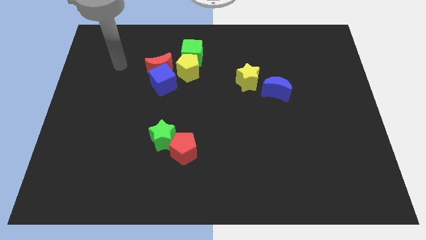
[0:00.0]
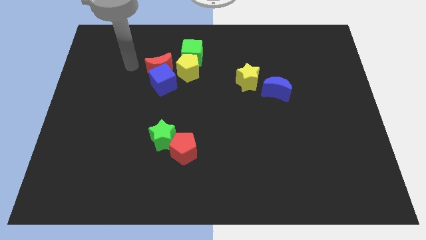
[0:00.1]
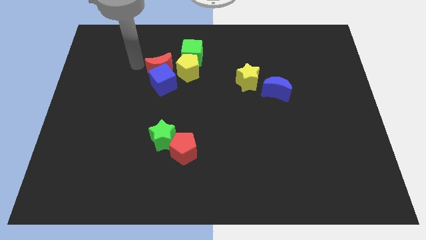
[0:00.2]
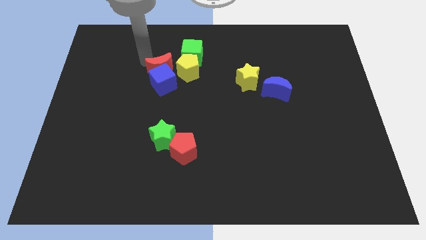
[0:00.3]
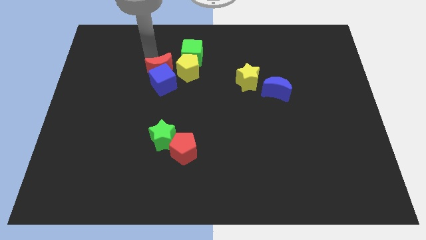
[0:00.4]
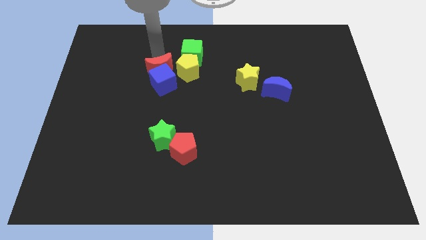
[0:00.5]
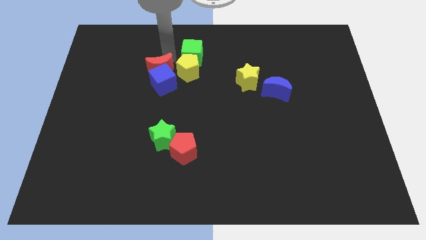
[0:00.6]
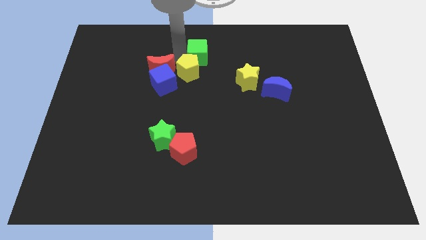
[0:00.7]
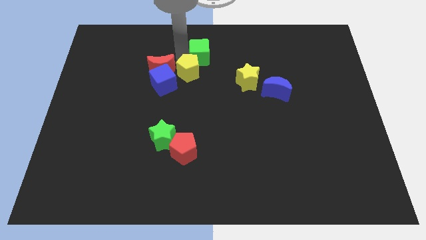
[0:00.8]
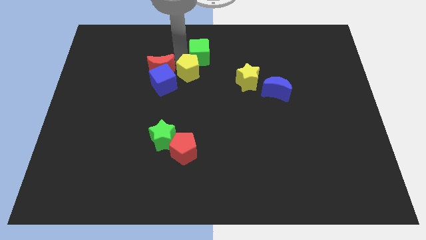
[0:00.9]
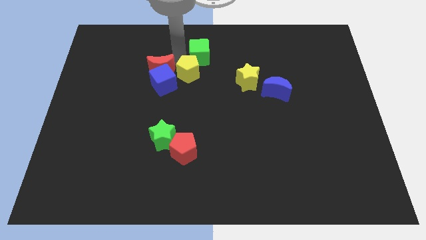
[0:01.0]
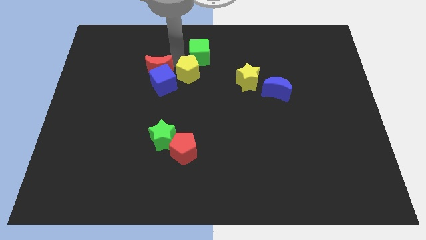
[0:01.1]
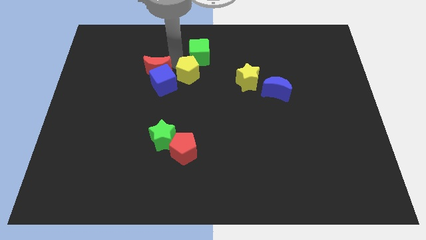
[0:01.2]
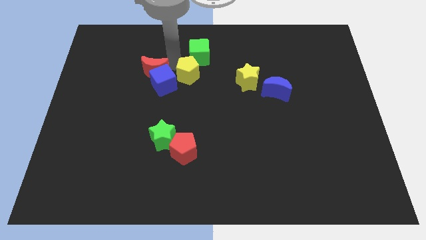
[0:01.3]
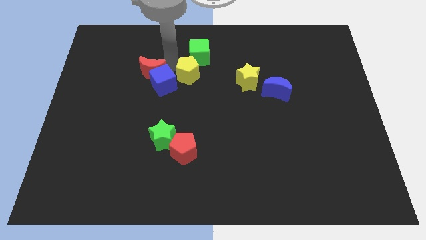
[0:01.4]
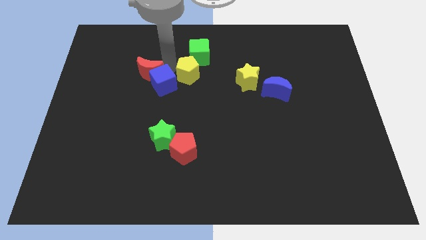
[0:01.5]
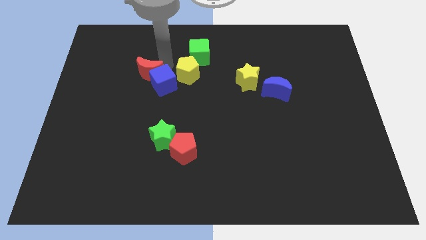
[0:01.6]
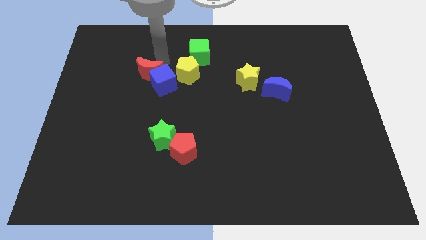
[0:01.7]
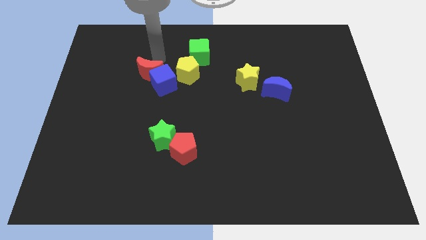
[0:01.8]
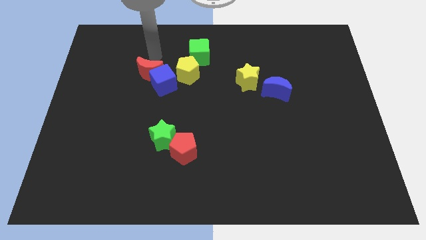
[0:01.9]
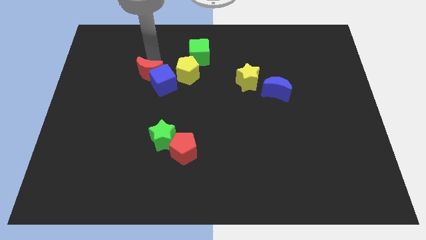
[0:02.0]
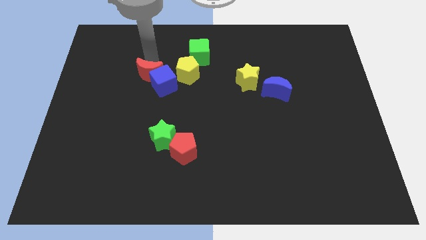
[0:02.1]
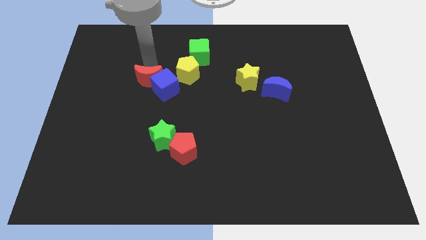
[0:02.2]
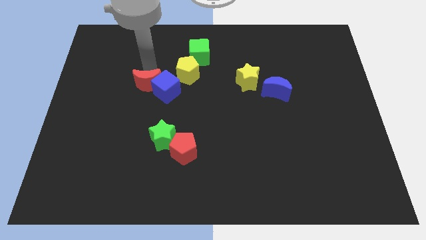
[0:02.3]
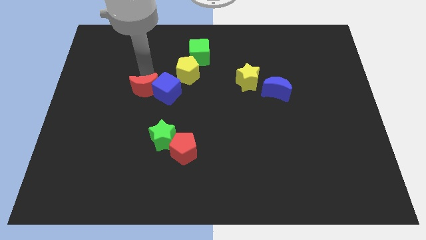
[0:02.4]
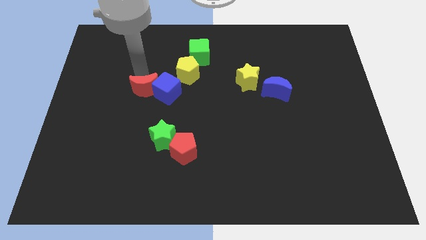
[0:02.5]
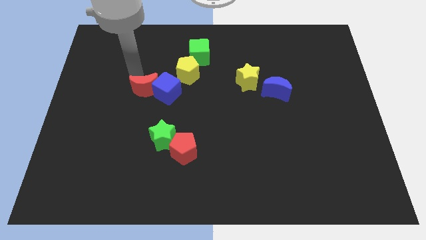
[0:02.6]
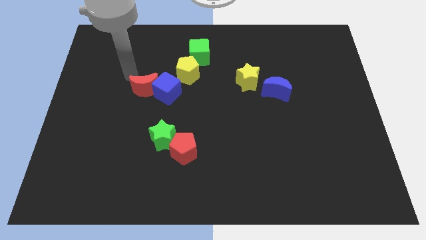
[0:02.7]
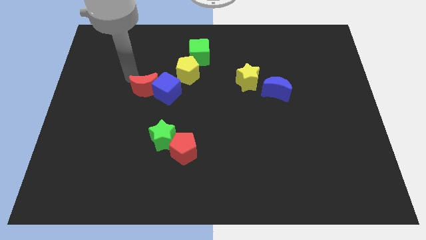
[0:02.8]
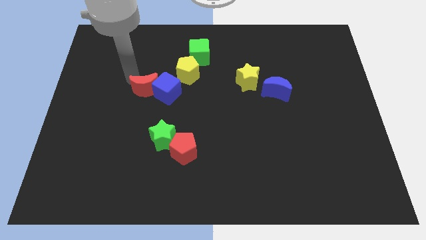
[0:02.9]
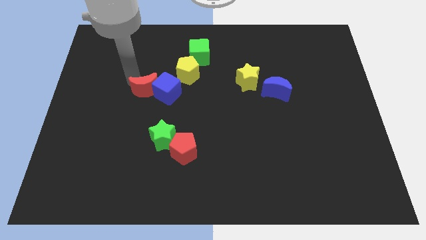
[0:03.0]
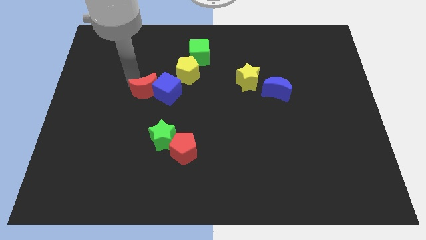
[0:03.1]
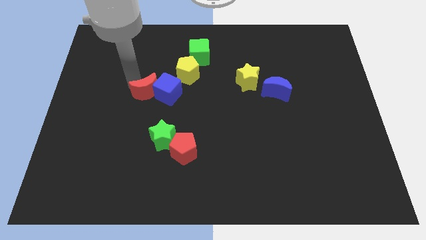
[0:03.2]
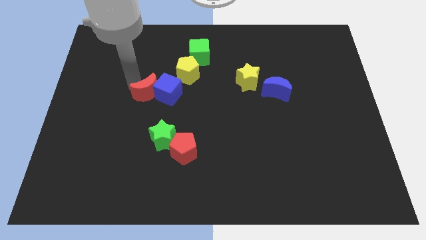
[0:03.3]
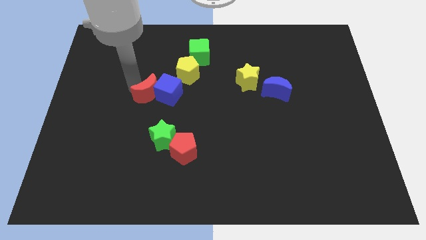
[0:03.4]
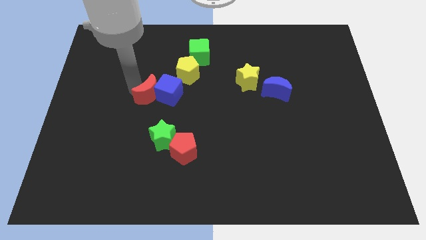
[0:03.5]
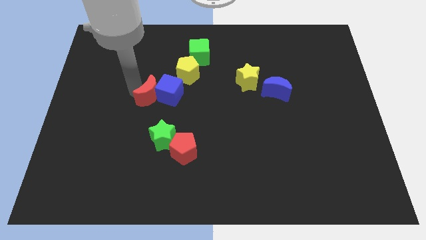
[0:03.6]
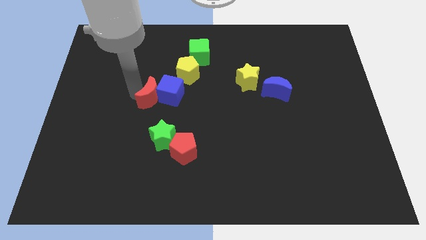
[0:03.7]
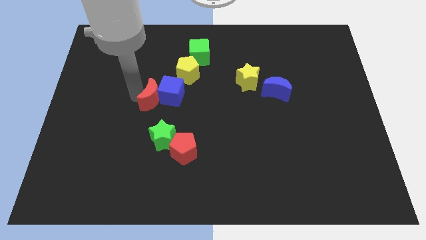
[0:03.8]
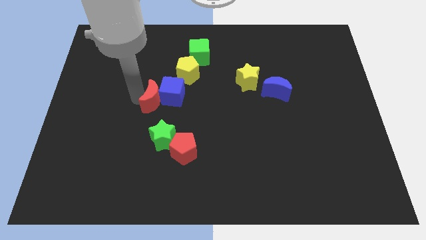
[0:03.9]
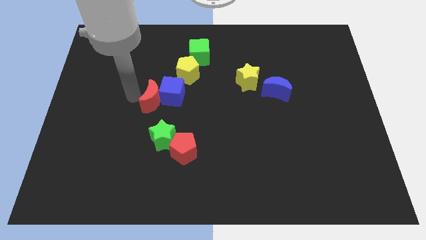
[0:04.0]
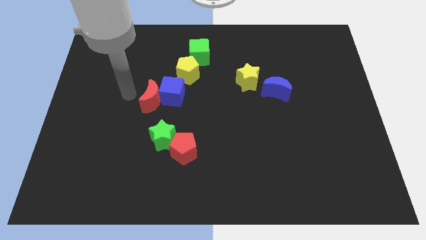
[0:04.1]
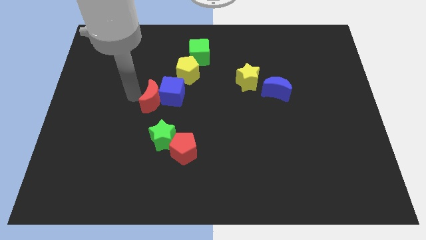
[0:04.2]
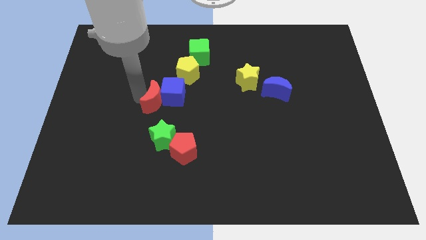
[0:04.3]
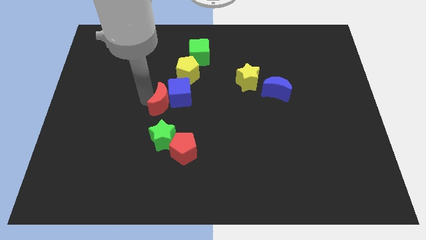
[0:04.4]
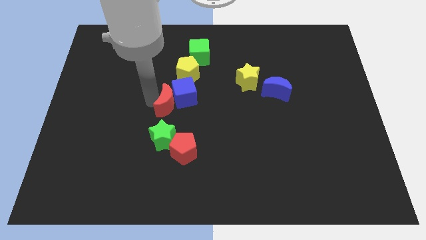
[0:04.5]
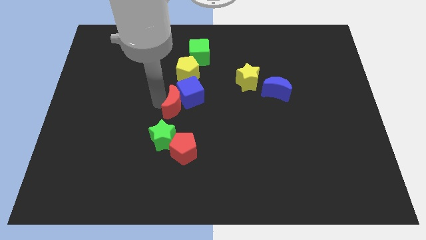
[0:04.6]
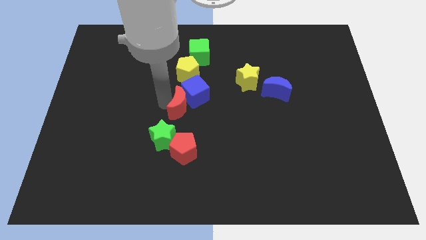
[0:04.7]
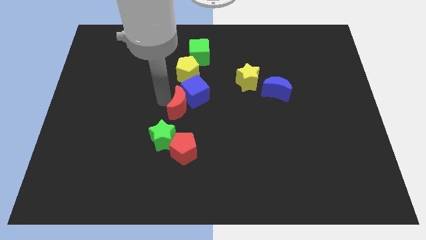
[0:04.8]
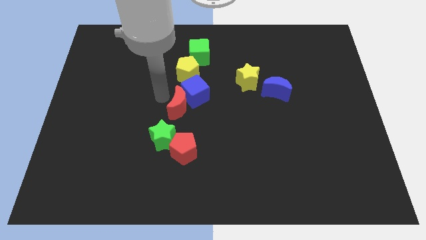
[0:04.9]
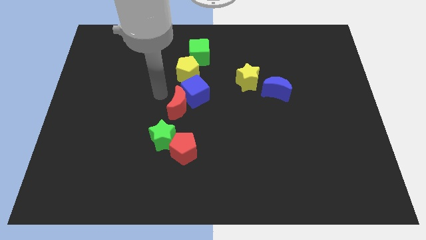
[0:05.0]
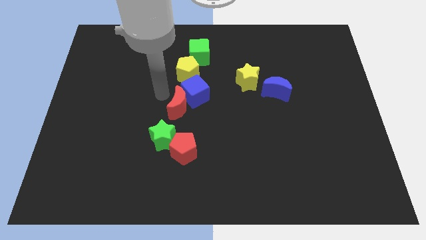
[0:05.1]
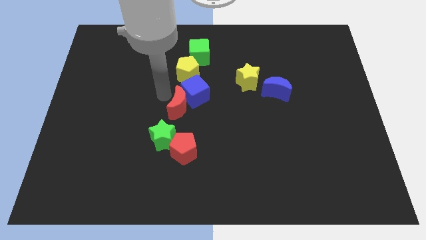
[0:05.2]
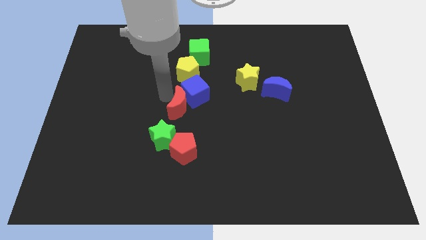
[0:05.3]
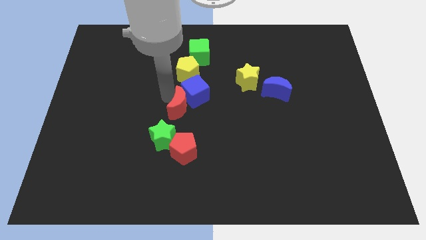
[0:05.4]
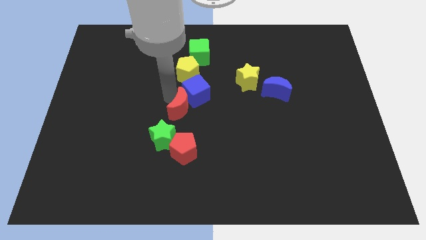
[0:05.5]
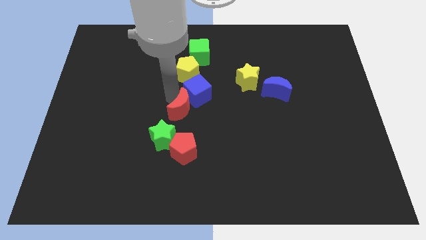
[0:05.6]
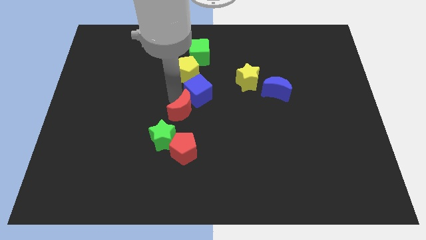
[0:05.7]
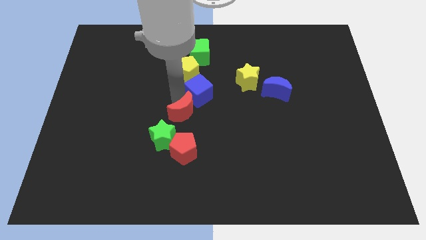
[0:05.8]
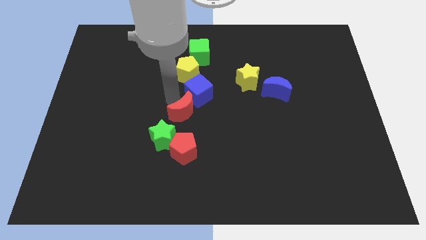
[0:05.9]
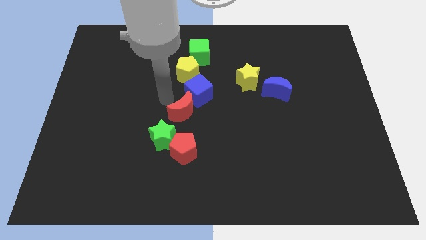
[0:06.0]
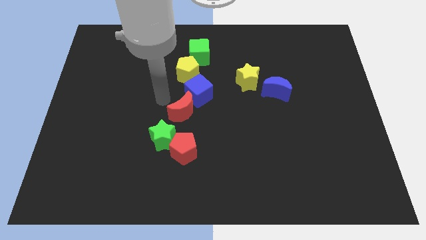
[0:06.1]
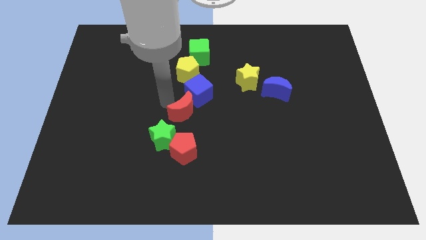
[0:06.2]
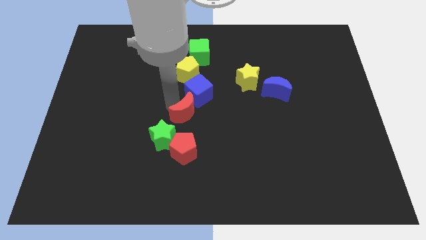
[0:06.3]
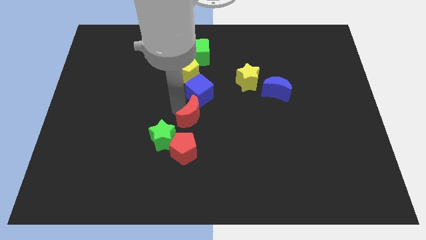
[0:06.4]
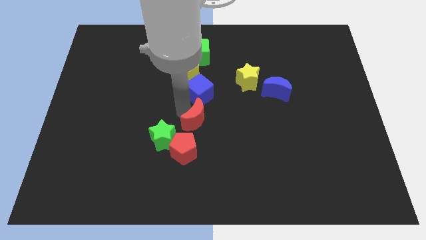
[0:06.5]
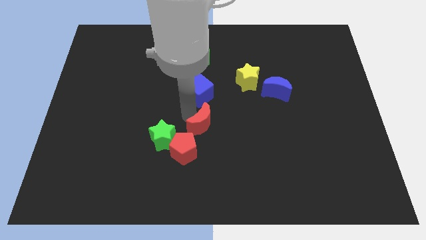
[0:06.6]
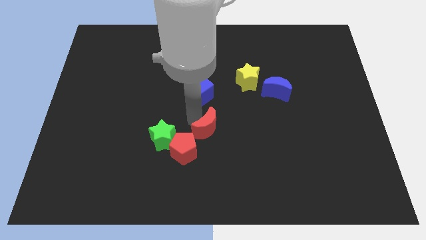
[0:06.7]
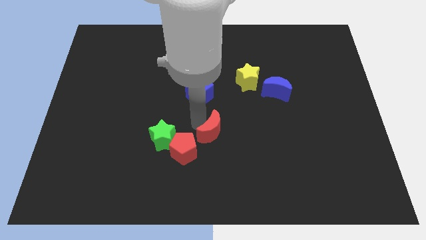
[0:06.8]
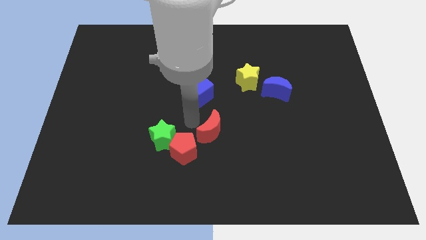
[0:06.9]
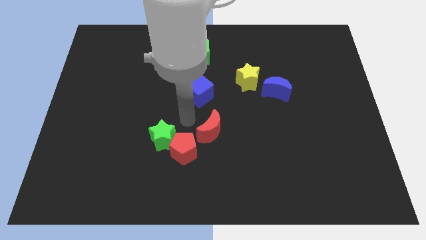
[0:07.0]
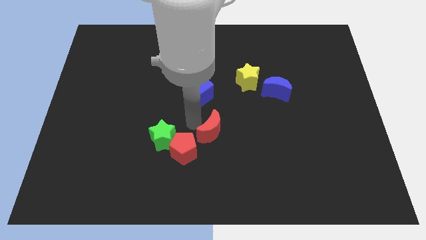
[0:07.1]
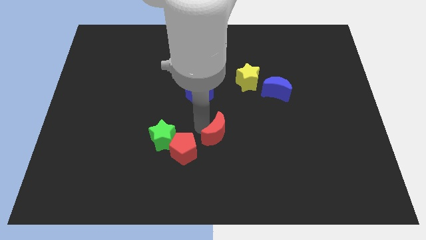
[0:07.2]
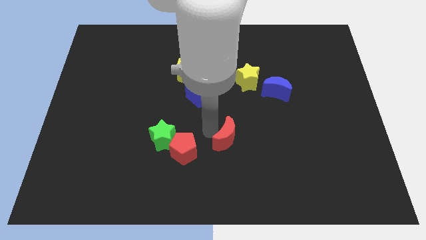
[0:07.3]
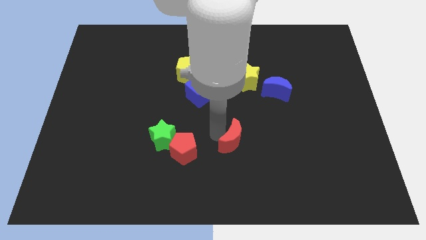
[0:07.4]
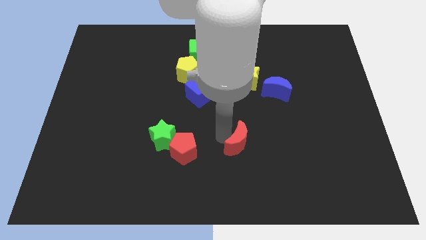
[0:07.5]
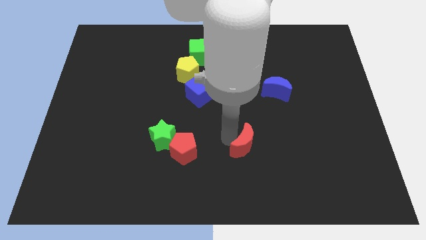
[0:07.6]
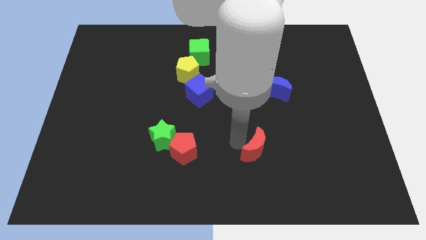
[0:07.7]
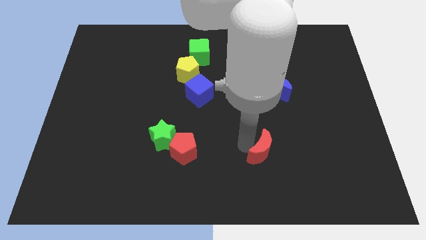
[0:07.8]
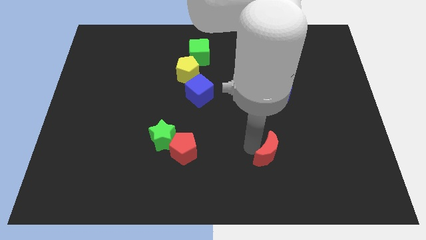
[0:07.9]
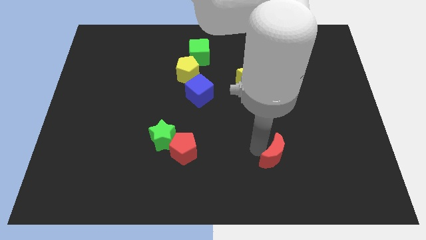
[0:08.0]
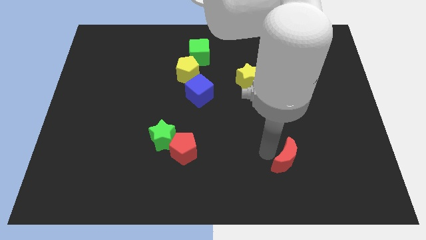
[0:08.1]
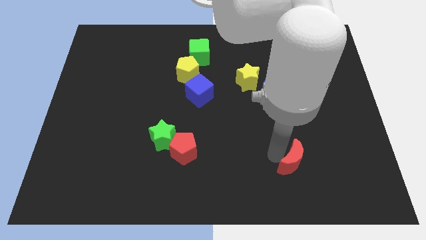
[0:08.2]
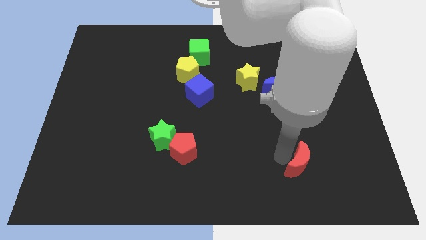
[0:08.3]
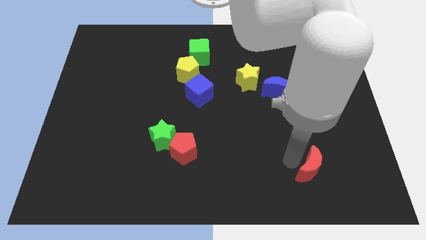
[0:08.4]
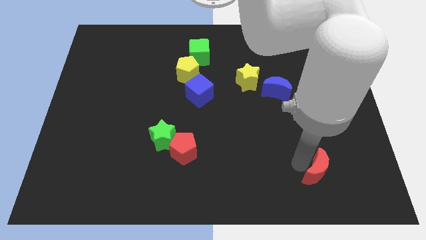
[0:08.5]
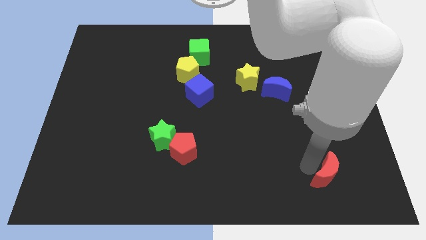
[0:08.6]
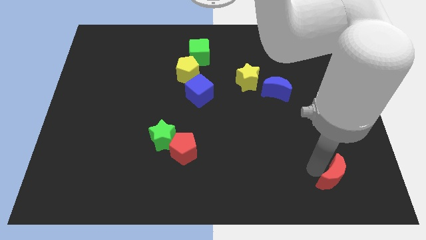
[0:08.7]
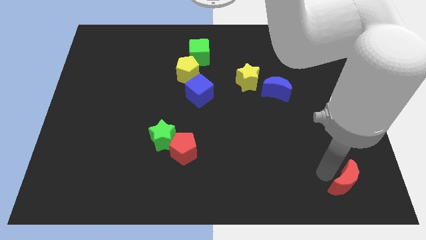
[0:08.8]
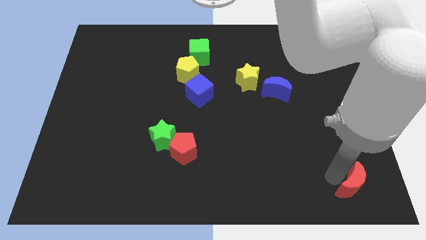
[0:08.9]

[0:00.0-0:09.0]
push the red moon to the bottom right
